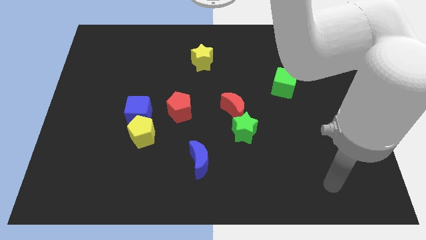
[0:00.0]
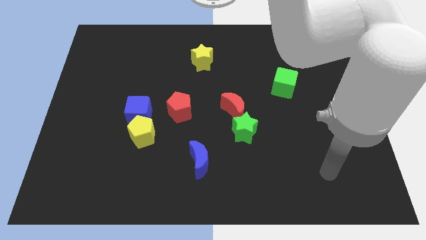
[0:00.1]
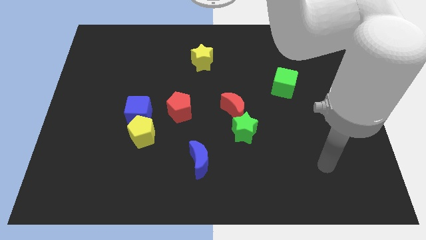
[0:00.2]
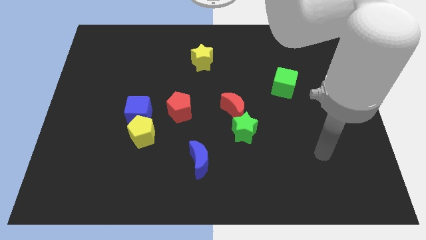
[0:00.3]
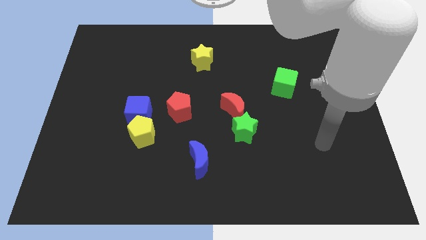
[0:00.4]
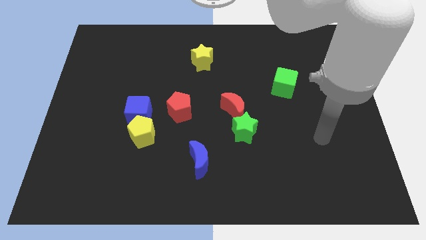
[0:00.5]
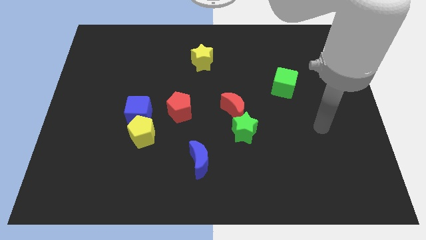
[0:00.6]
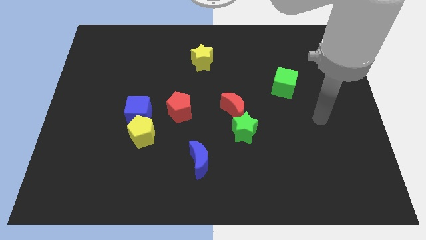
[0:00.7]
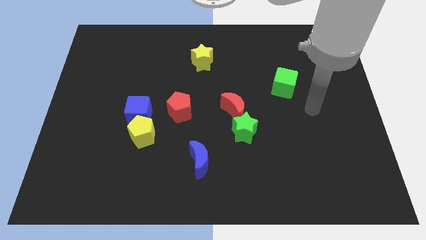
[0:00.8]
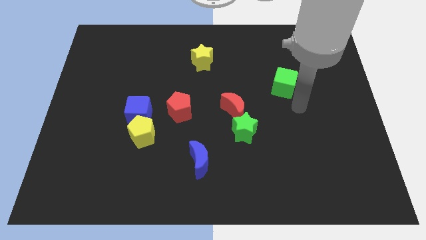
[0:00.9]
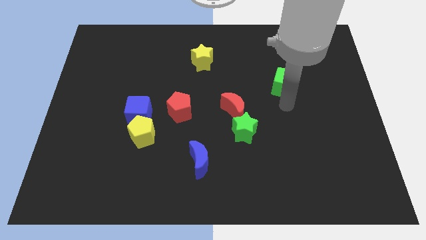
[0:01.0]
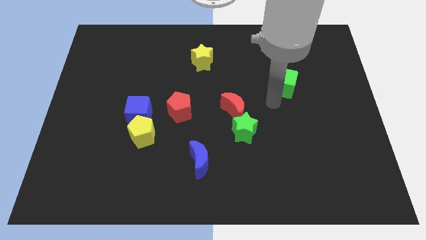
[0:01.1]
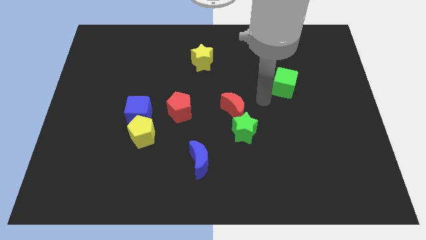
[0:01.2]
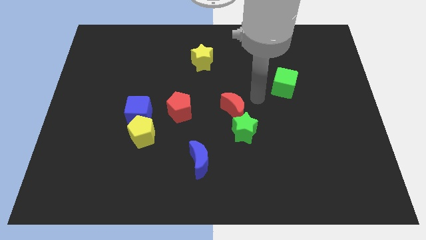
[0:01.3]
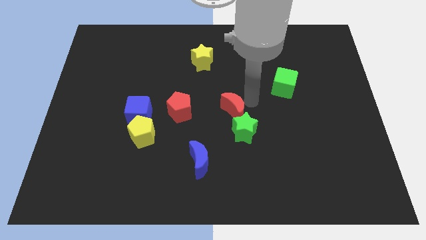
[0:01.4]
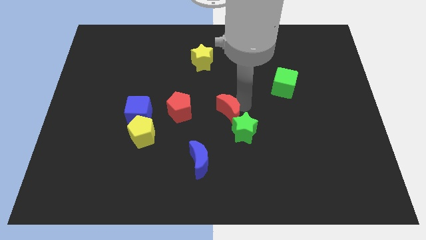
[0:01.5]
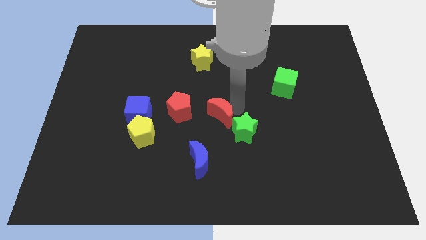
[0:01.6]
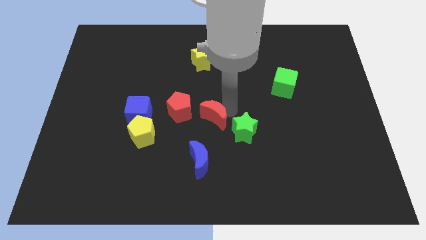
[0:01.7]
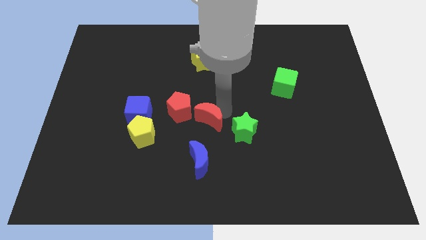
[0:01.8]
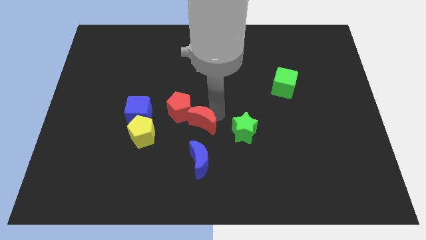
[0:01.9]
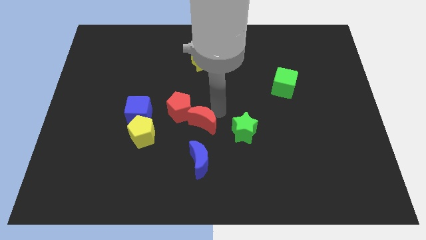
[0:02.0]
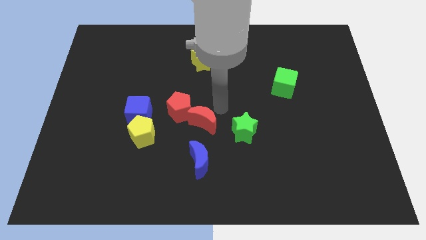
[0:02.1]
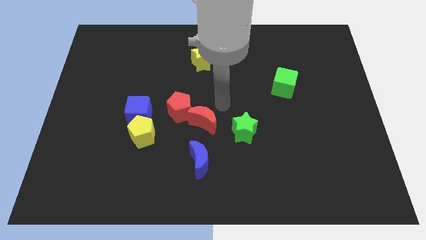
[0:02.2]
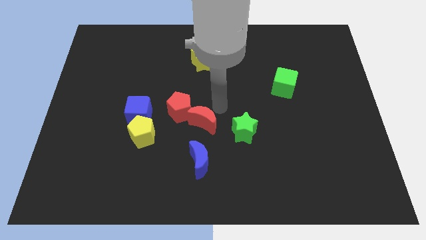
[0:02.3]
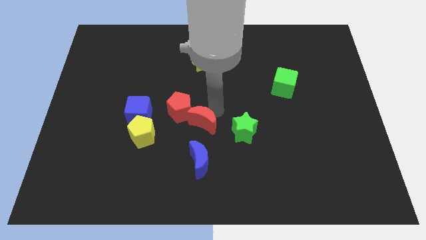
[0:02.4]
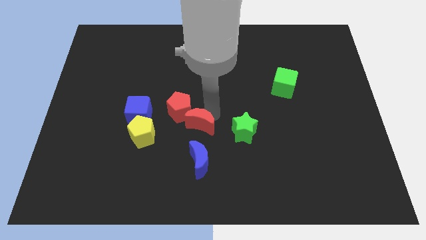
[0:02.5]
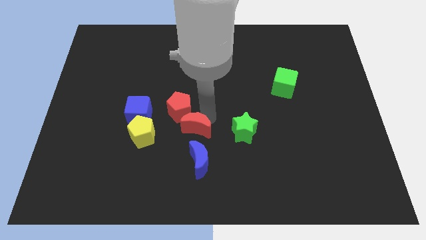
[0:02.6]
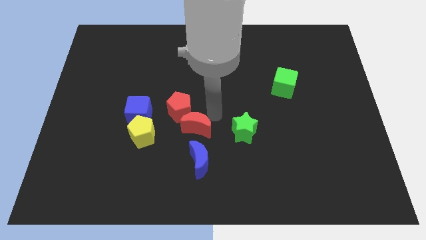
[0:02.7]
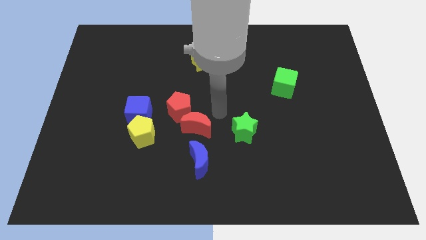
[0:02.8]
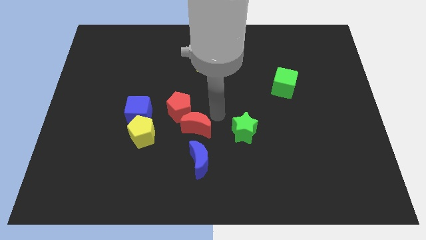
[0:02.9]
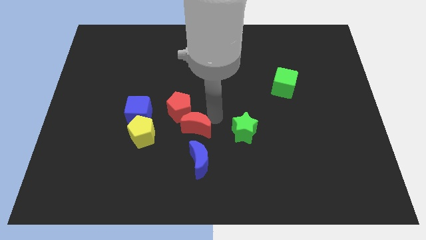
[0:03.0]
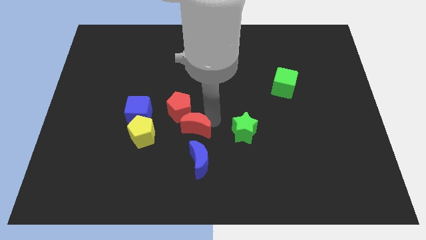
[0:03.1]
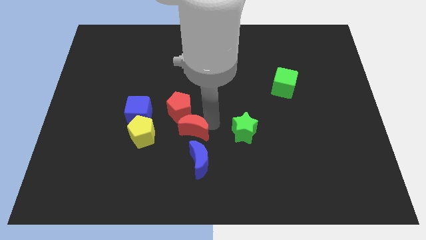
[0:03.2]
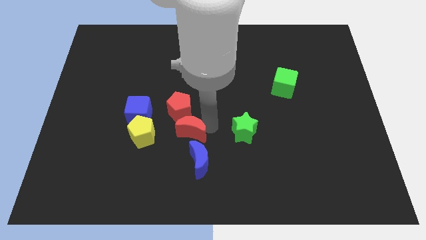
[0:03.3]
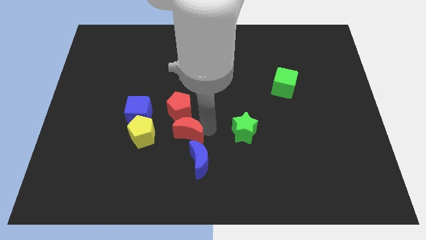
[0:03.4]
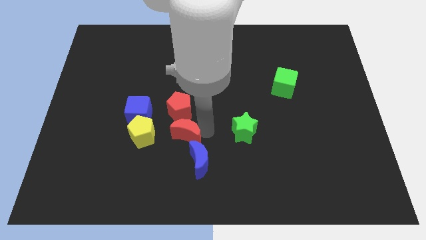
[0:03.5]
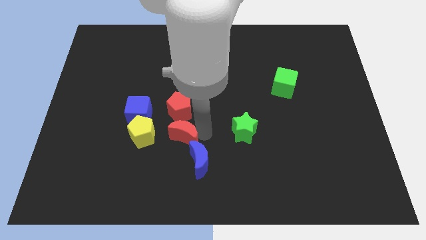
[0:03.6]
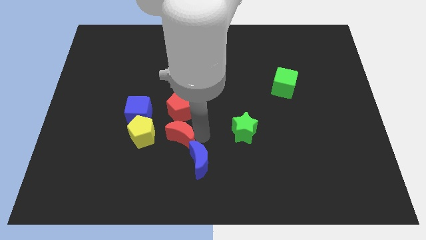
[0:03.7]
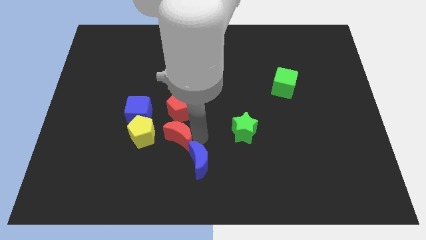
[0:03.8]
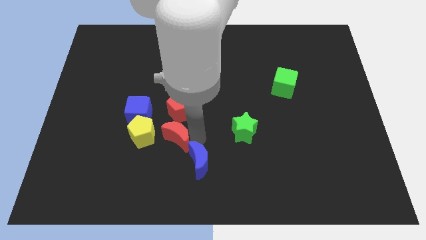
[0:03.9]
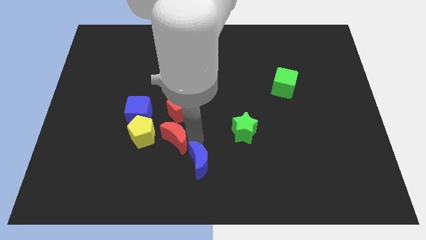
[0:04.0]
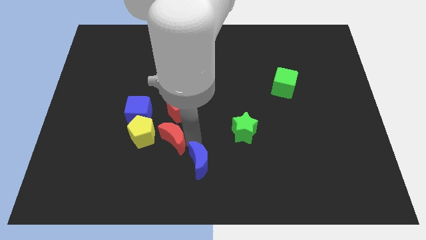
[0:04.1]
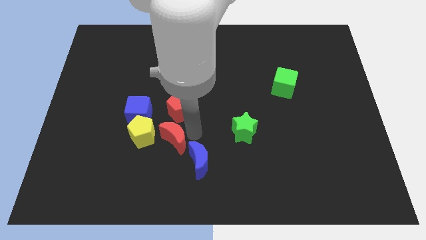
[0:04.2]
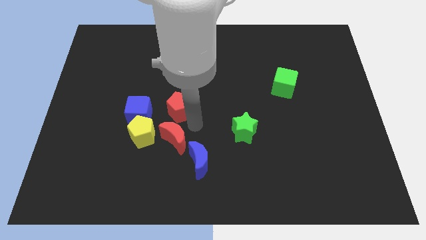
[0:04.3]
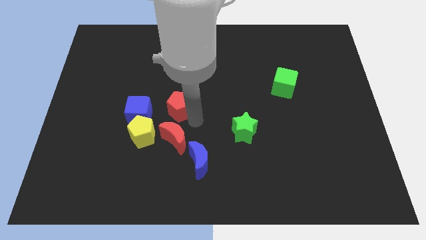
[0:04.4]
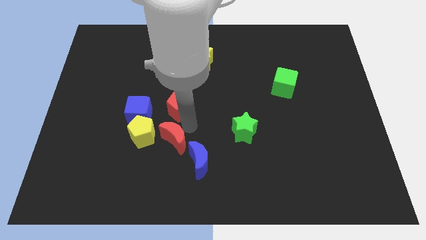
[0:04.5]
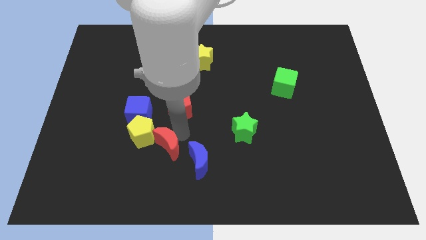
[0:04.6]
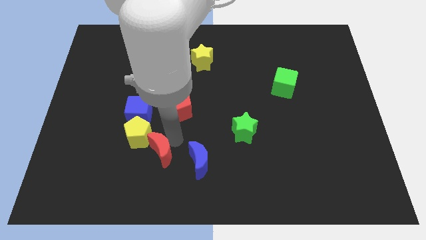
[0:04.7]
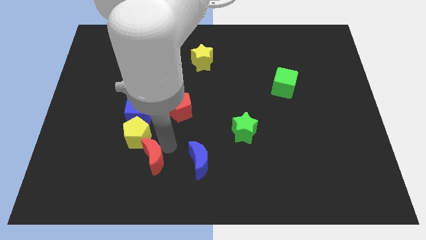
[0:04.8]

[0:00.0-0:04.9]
move the red moon below the yellow pentagon

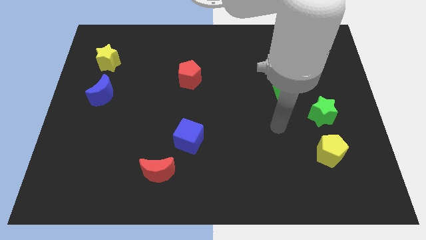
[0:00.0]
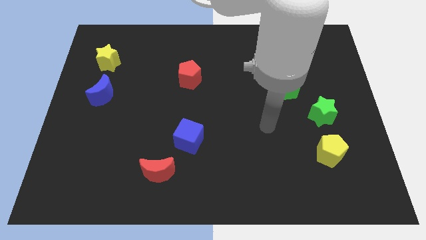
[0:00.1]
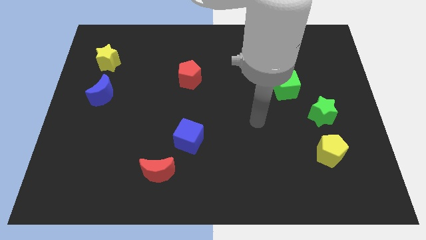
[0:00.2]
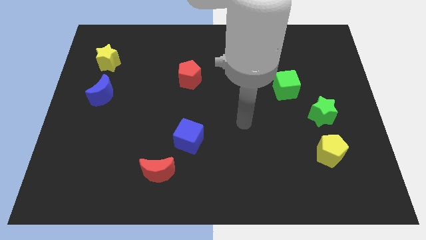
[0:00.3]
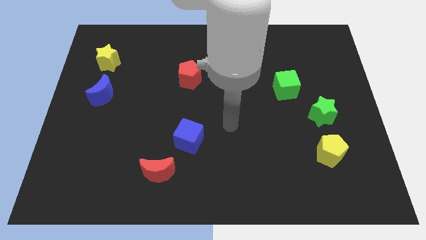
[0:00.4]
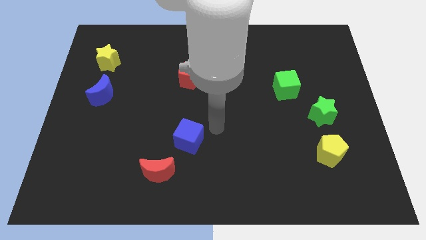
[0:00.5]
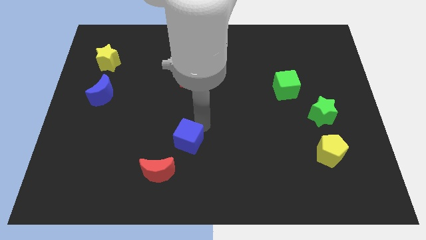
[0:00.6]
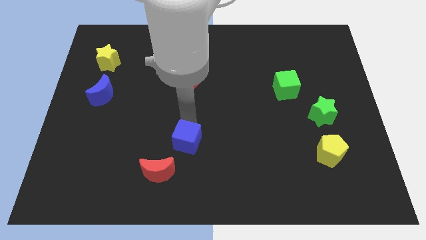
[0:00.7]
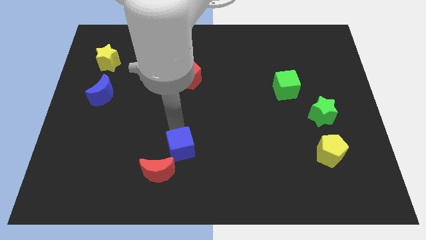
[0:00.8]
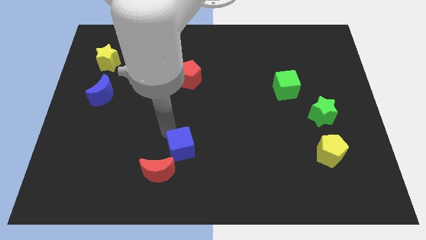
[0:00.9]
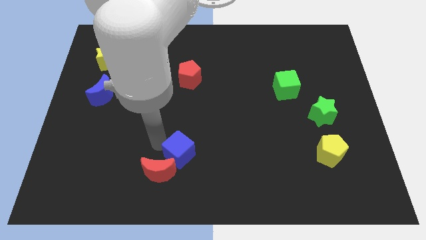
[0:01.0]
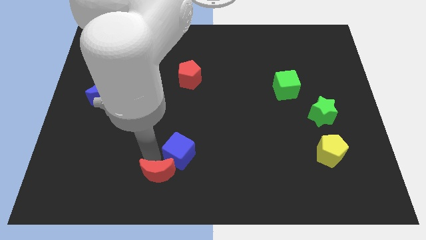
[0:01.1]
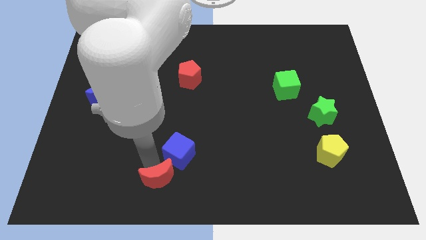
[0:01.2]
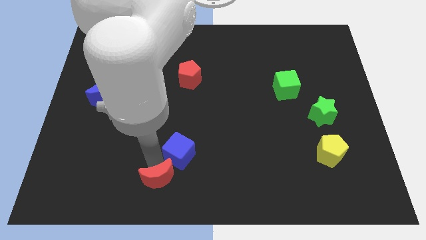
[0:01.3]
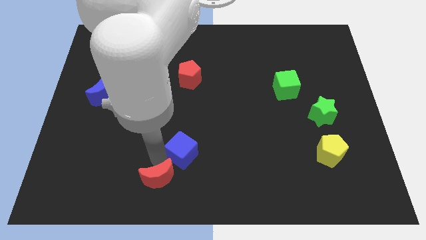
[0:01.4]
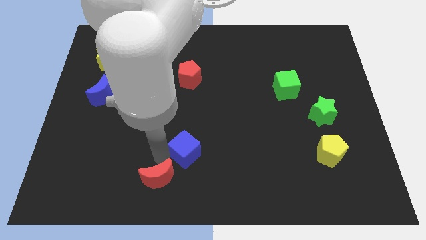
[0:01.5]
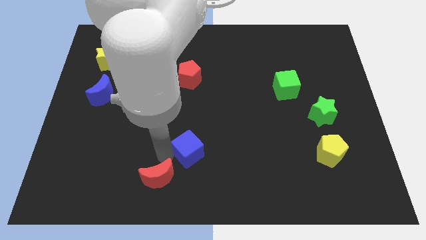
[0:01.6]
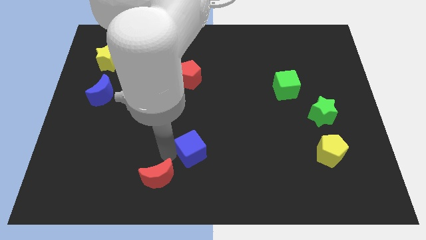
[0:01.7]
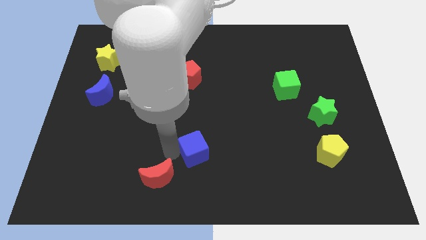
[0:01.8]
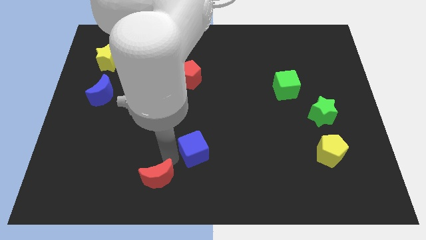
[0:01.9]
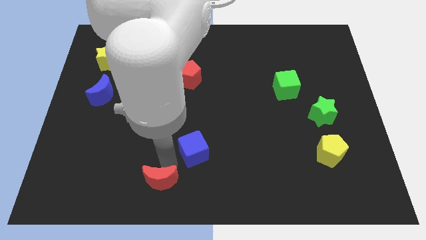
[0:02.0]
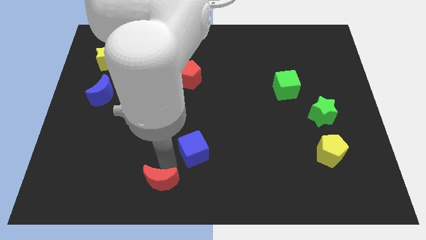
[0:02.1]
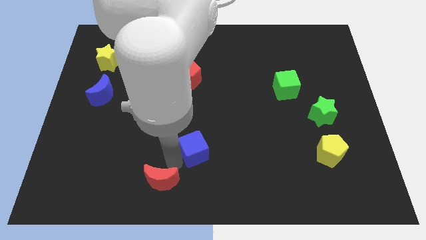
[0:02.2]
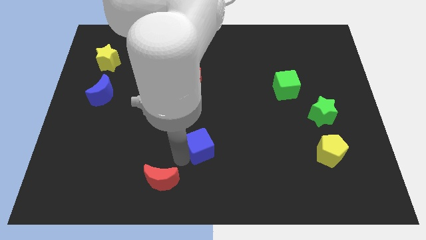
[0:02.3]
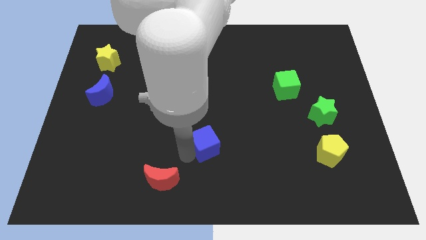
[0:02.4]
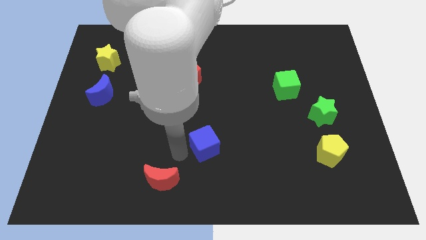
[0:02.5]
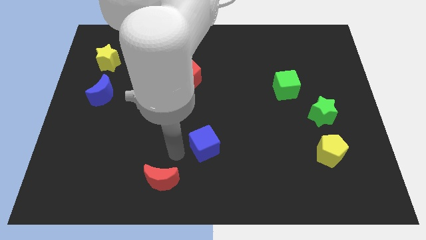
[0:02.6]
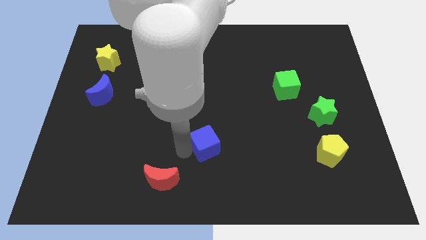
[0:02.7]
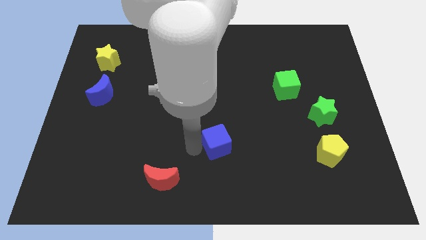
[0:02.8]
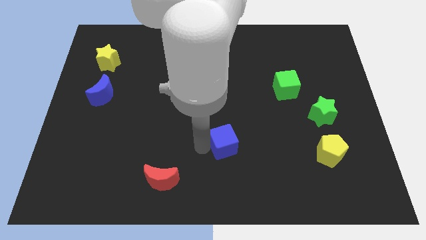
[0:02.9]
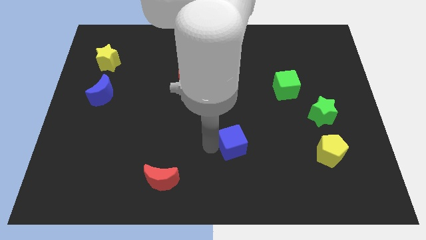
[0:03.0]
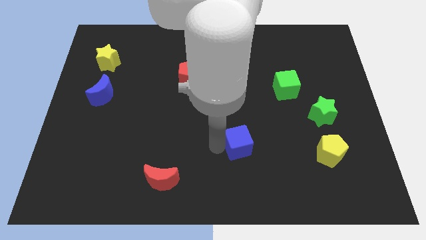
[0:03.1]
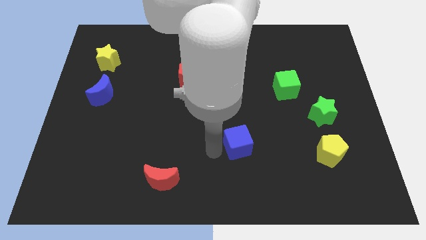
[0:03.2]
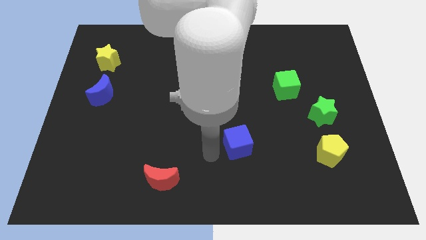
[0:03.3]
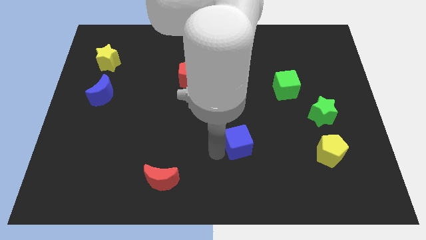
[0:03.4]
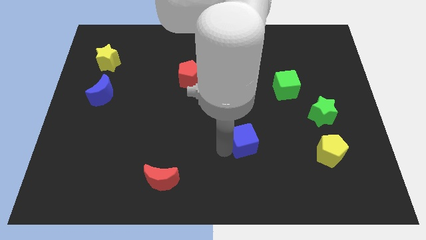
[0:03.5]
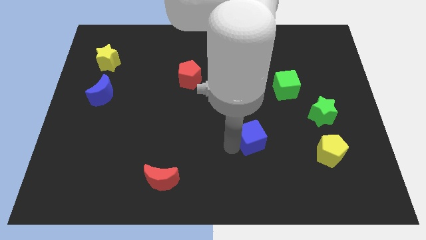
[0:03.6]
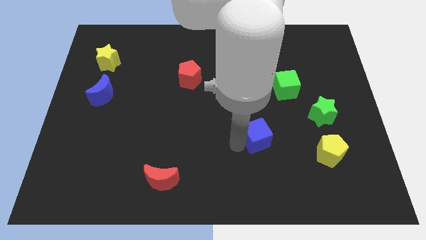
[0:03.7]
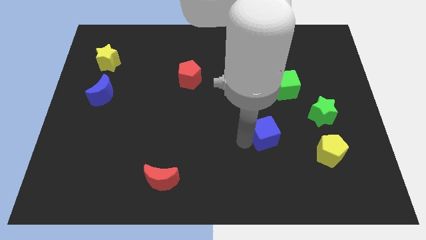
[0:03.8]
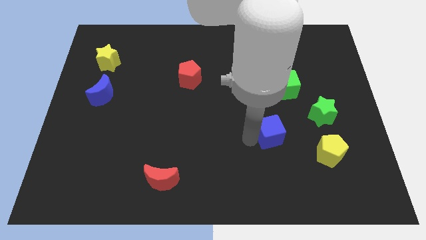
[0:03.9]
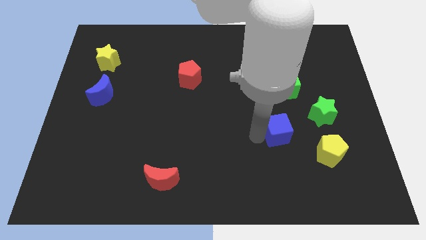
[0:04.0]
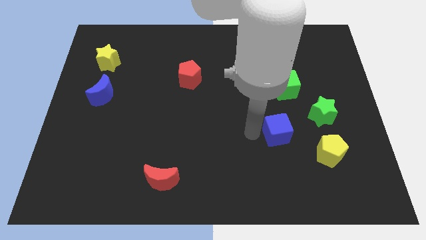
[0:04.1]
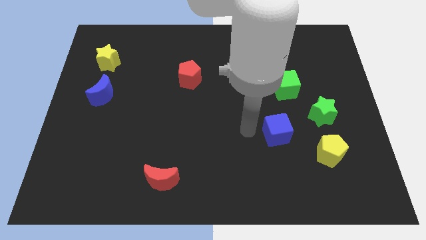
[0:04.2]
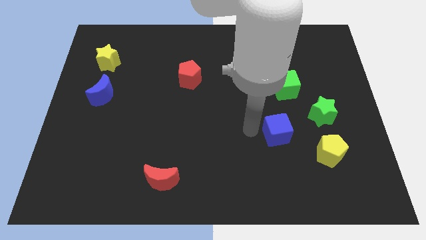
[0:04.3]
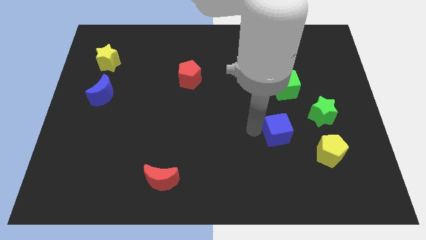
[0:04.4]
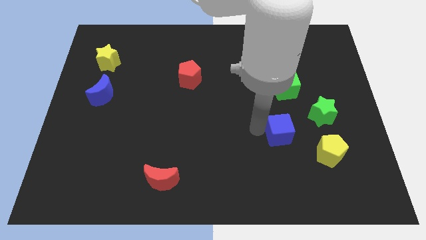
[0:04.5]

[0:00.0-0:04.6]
slide the blue cube to the bottom left side of the green star
